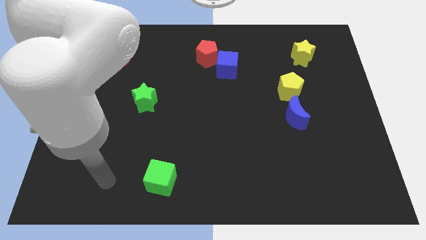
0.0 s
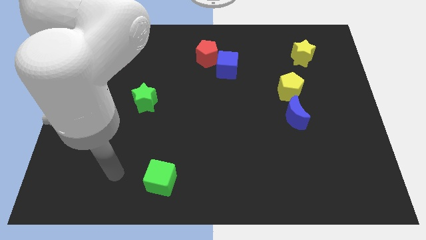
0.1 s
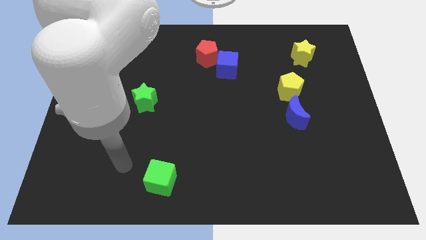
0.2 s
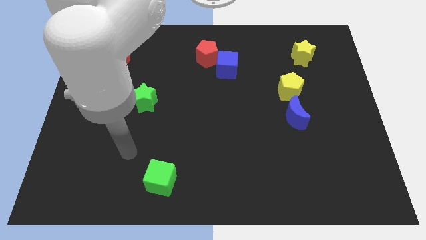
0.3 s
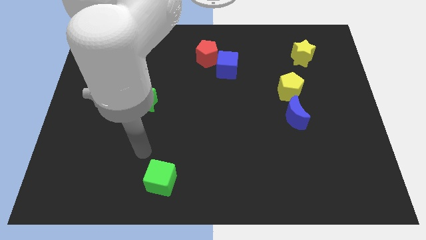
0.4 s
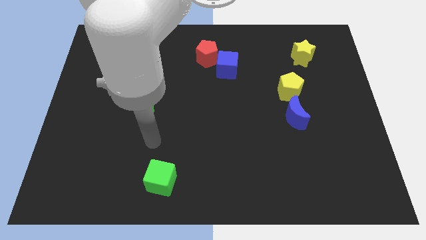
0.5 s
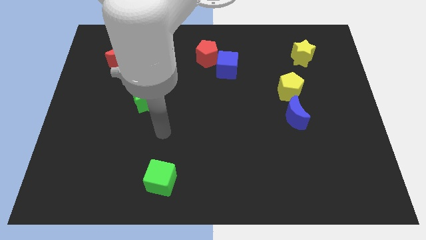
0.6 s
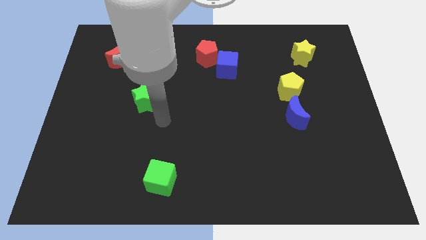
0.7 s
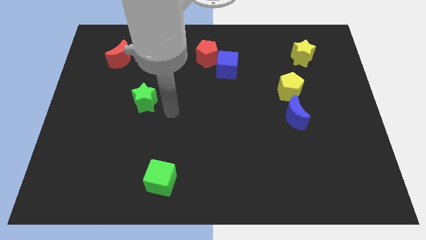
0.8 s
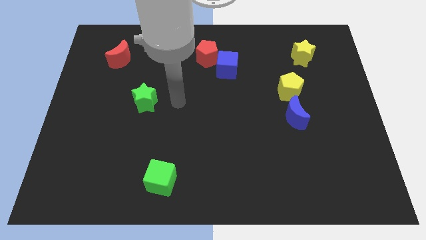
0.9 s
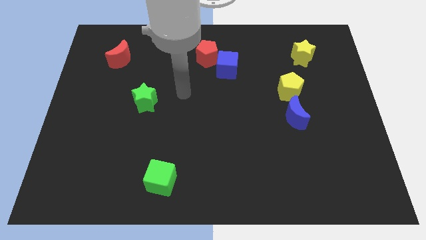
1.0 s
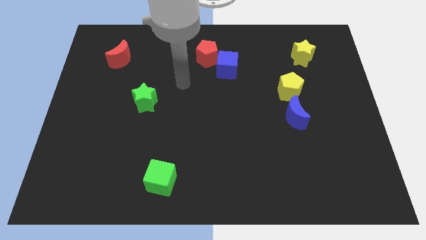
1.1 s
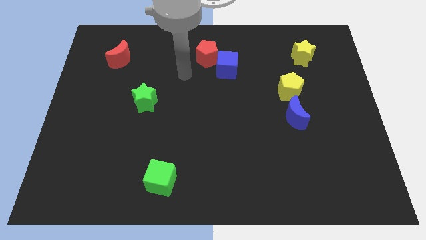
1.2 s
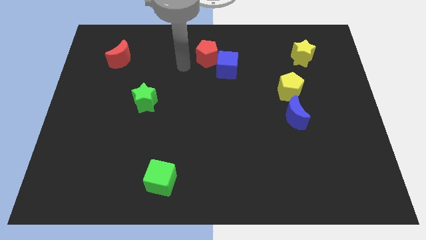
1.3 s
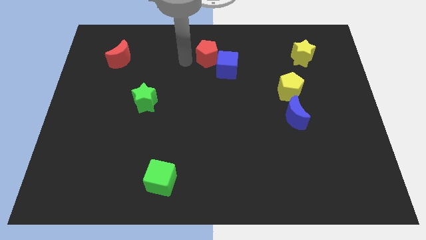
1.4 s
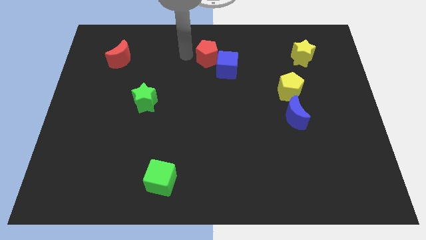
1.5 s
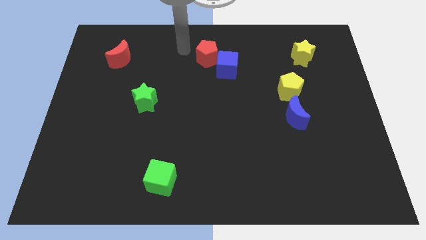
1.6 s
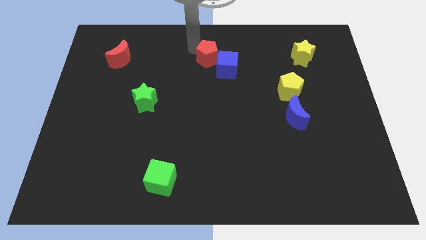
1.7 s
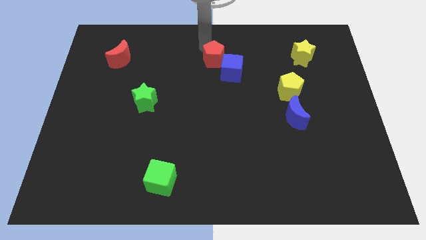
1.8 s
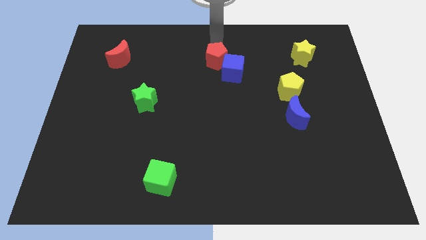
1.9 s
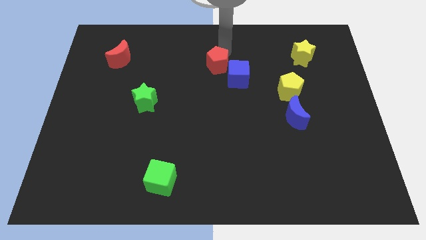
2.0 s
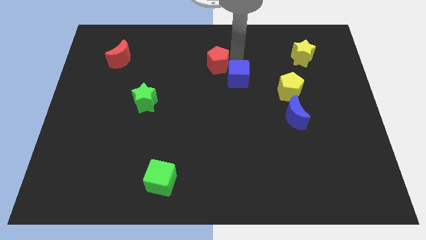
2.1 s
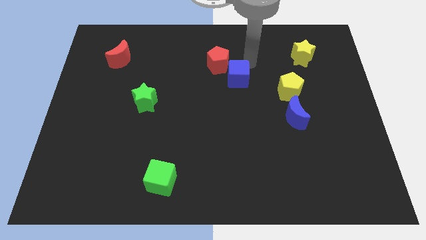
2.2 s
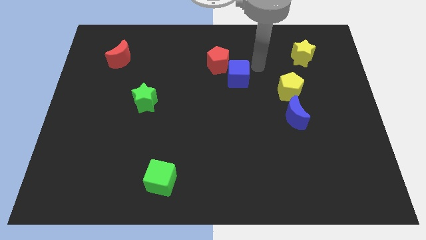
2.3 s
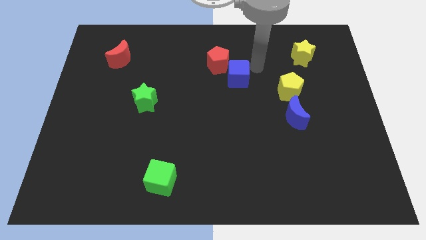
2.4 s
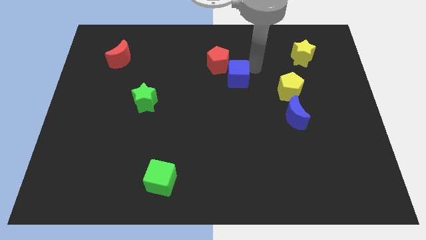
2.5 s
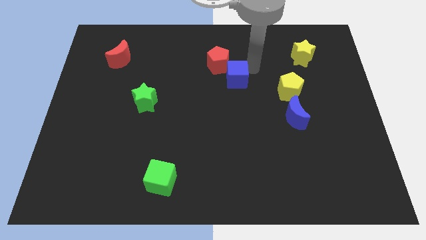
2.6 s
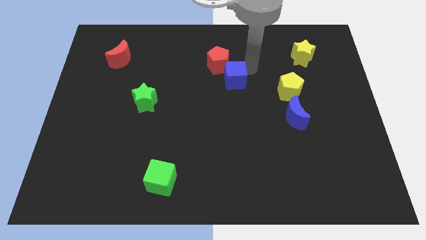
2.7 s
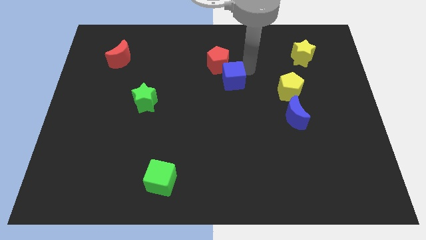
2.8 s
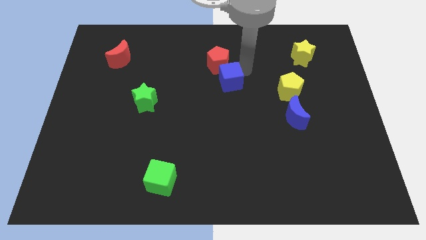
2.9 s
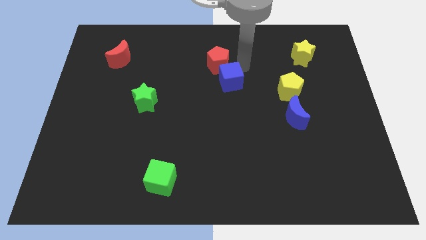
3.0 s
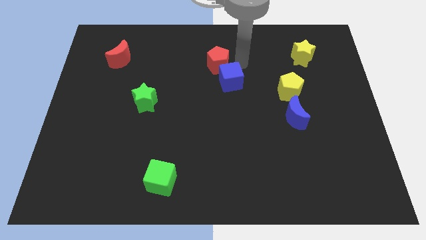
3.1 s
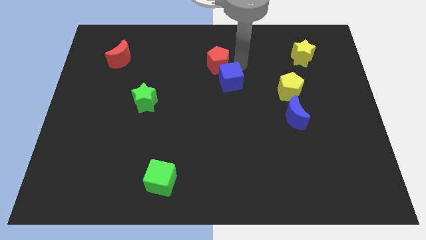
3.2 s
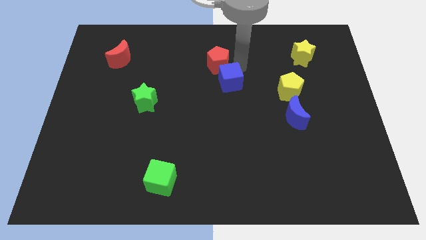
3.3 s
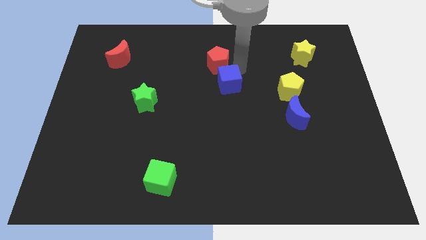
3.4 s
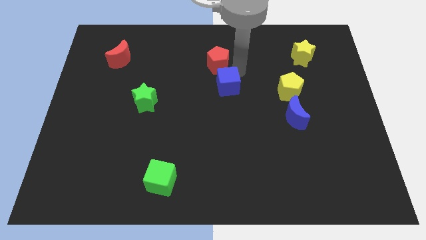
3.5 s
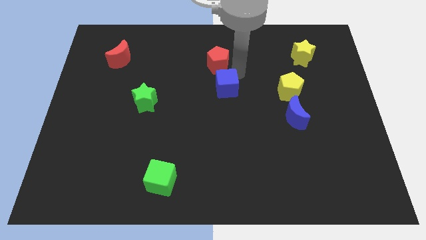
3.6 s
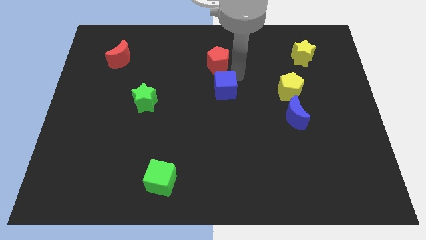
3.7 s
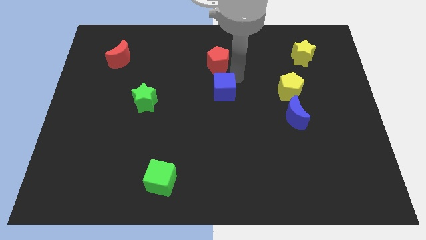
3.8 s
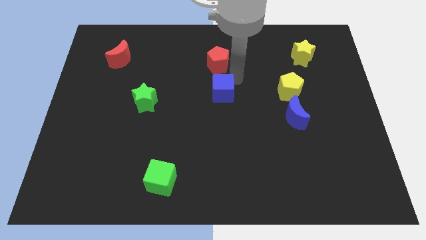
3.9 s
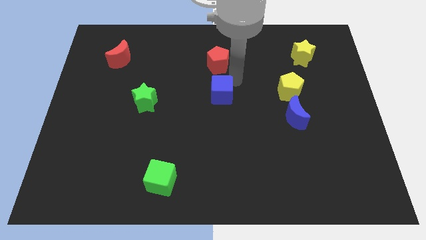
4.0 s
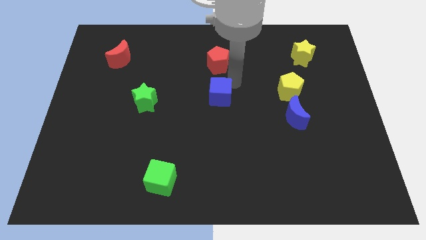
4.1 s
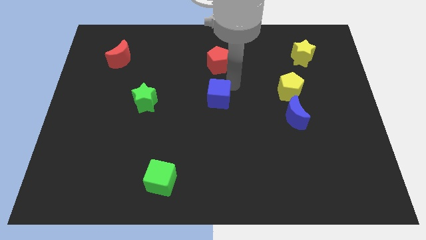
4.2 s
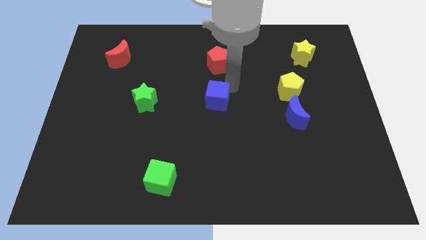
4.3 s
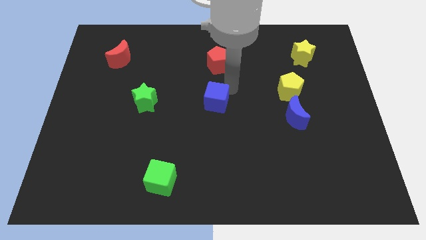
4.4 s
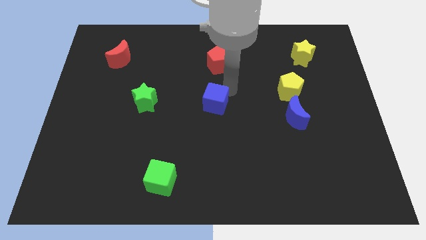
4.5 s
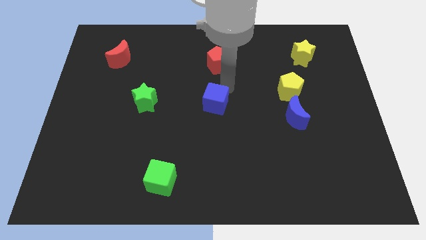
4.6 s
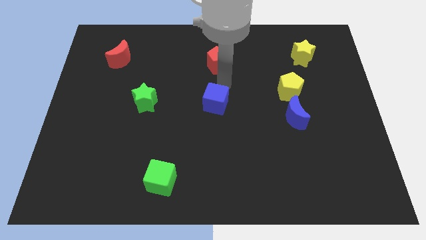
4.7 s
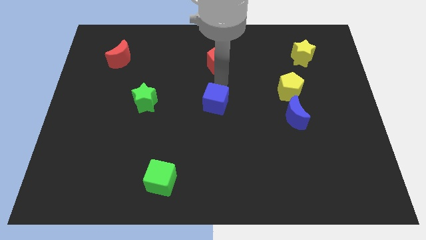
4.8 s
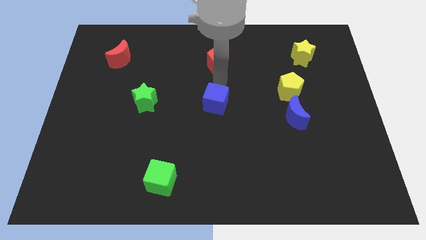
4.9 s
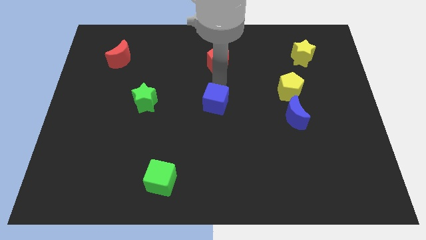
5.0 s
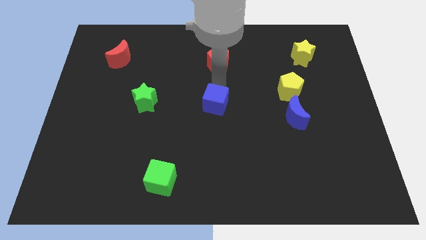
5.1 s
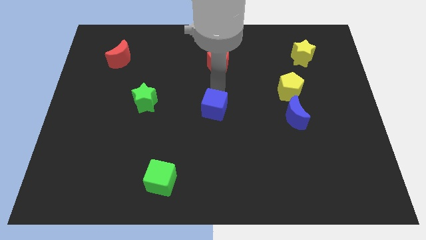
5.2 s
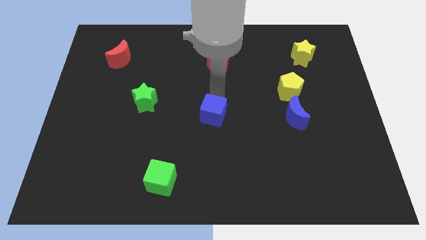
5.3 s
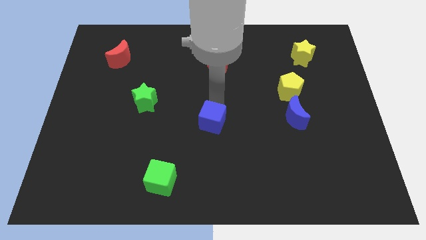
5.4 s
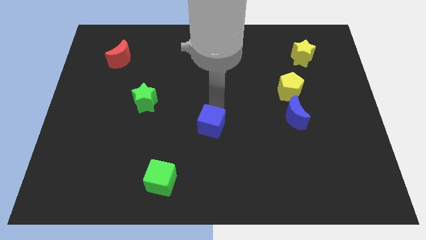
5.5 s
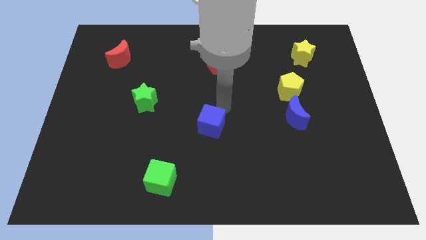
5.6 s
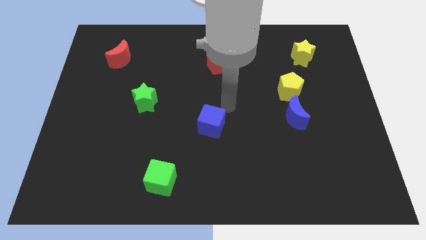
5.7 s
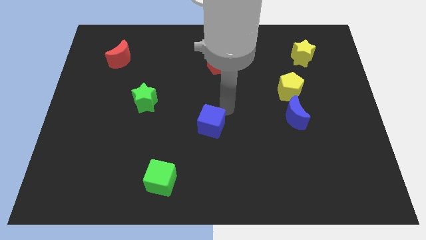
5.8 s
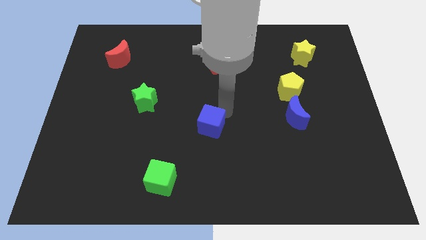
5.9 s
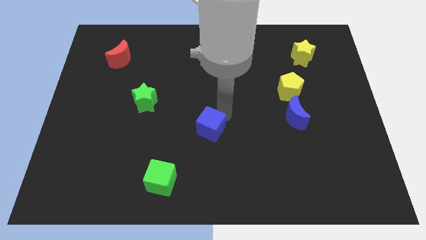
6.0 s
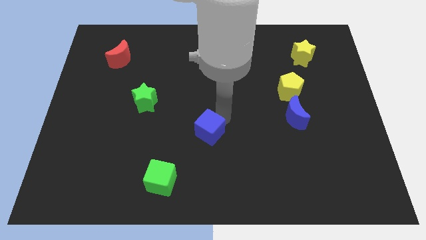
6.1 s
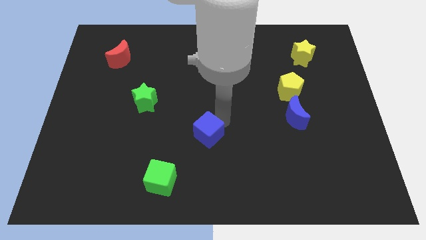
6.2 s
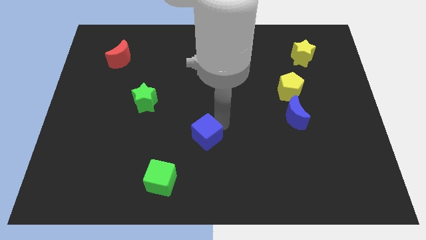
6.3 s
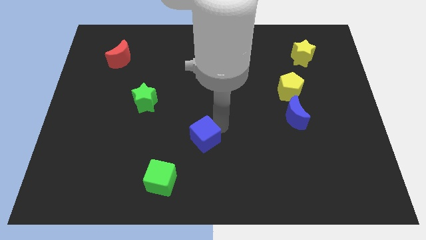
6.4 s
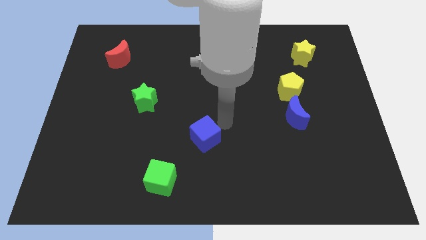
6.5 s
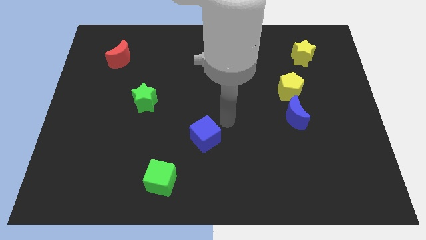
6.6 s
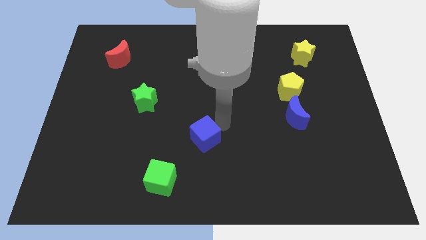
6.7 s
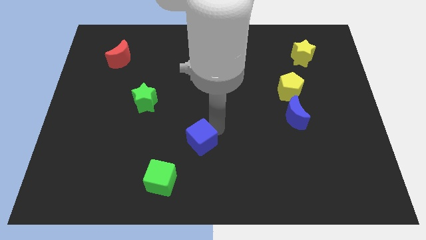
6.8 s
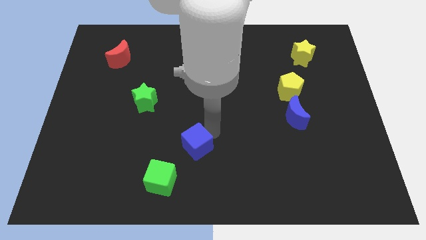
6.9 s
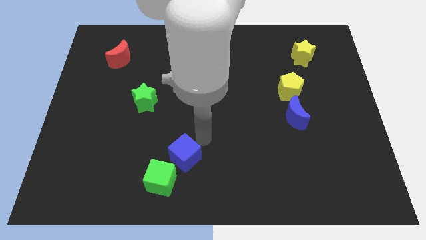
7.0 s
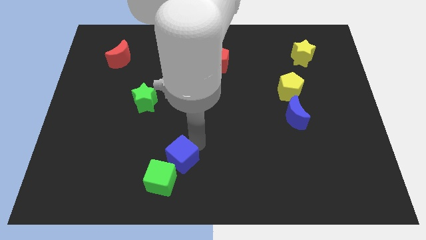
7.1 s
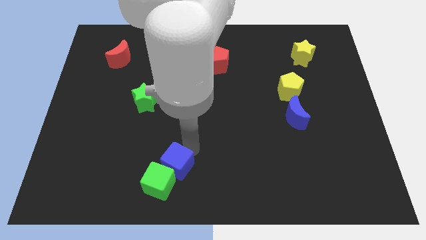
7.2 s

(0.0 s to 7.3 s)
push the blue cube next to the green cube
